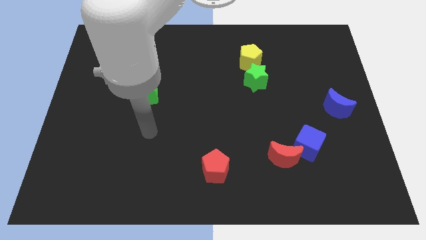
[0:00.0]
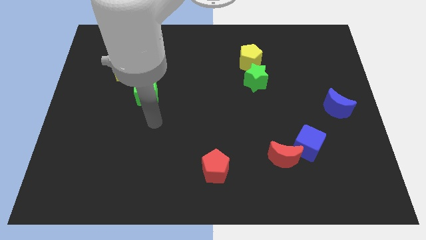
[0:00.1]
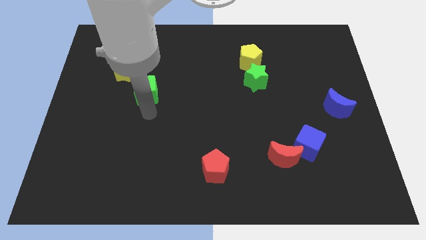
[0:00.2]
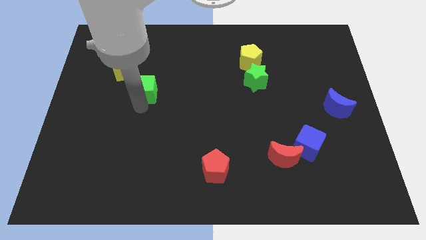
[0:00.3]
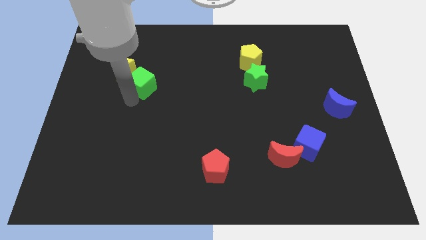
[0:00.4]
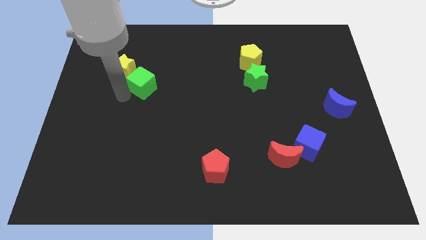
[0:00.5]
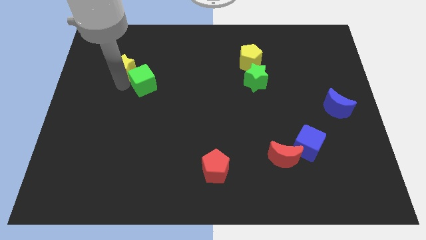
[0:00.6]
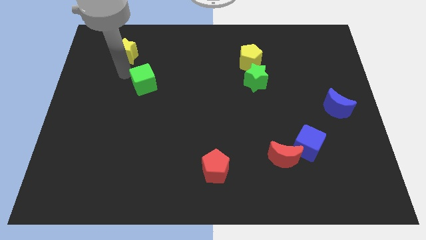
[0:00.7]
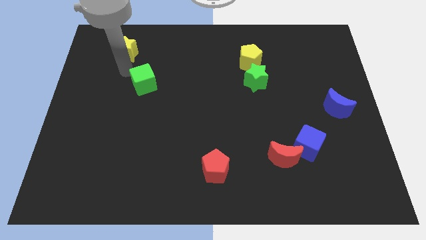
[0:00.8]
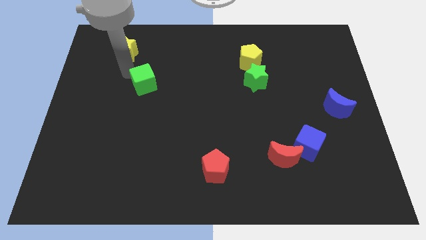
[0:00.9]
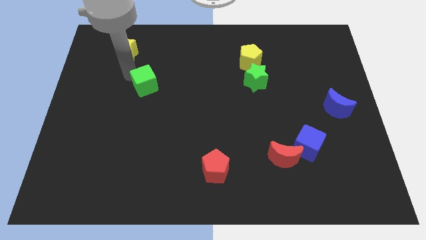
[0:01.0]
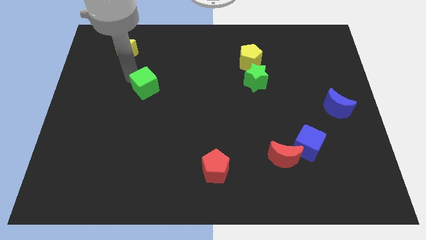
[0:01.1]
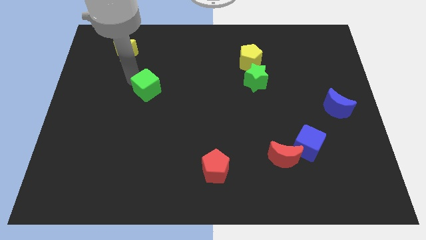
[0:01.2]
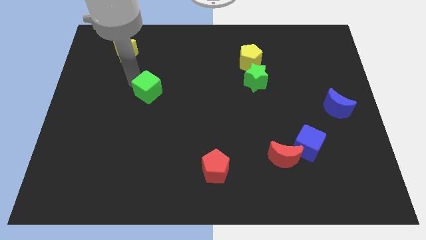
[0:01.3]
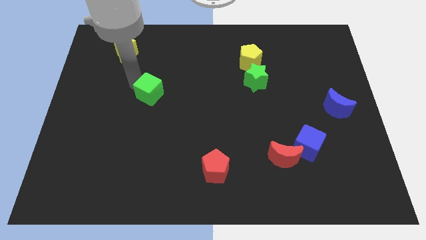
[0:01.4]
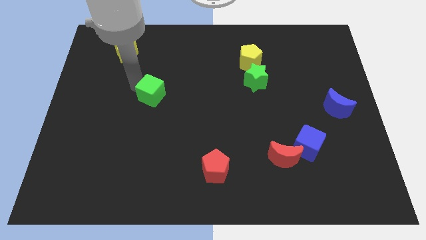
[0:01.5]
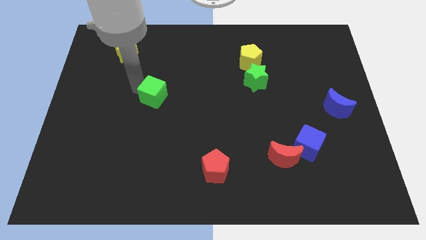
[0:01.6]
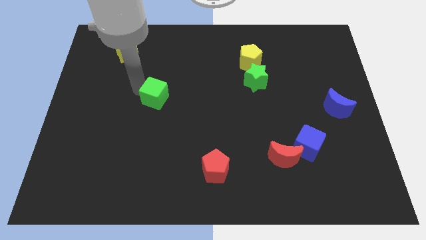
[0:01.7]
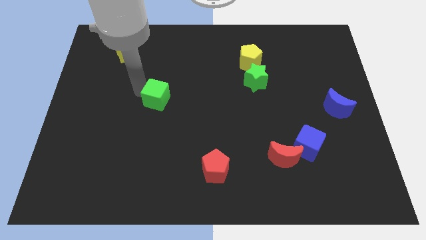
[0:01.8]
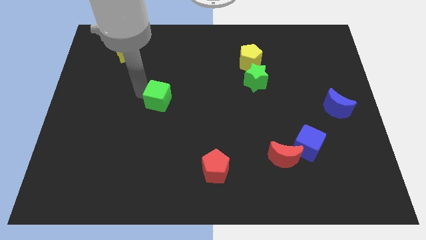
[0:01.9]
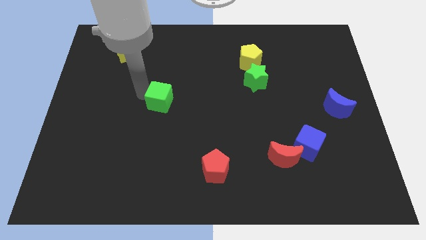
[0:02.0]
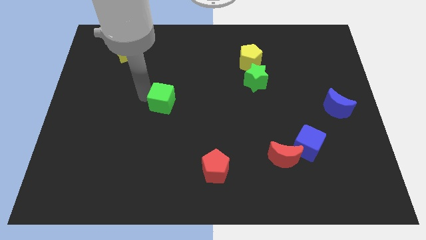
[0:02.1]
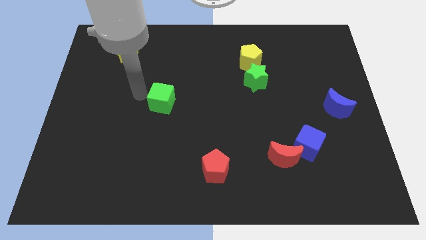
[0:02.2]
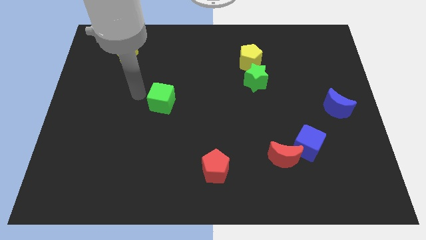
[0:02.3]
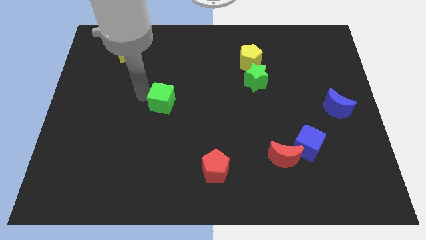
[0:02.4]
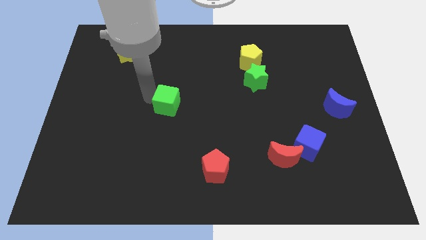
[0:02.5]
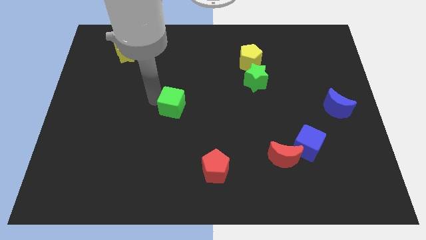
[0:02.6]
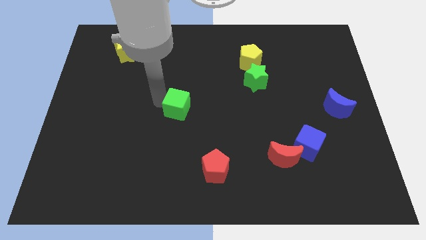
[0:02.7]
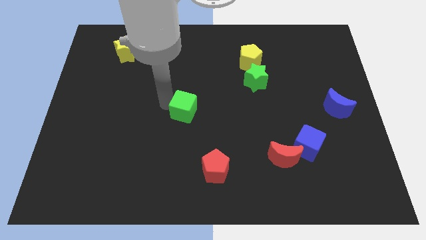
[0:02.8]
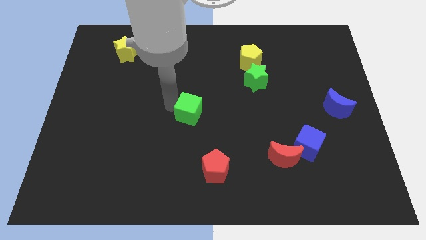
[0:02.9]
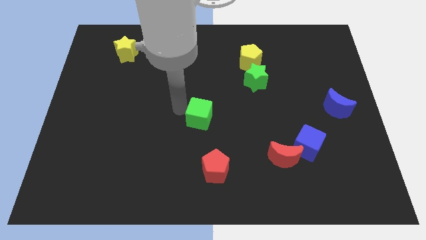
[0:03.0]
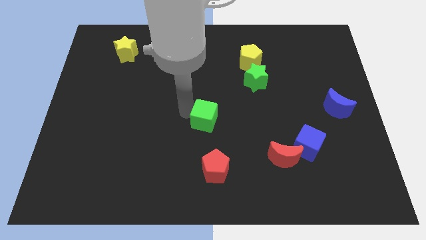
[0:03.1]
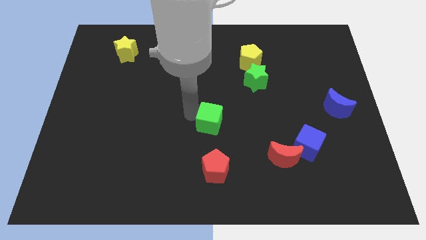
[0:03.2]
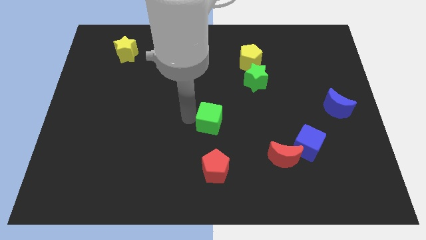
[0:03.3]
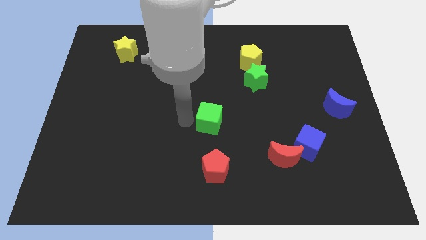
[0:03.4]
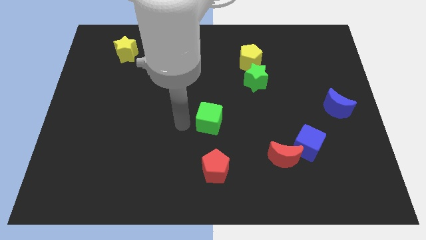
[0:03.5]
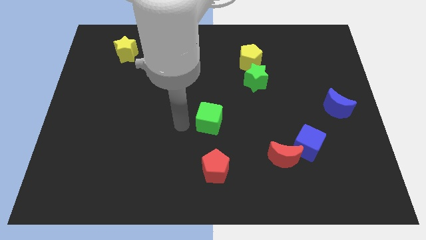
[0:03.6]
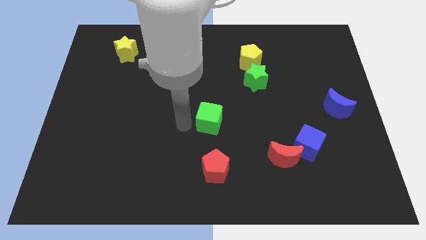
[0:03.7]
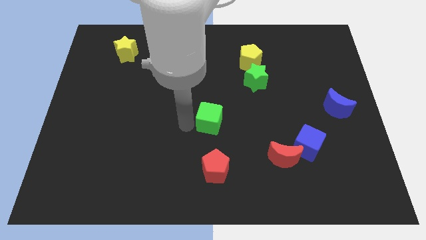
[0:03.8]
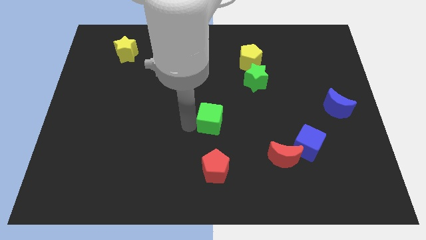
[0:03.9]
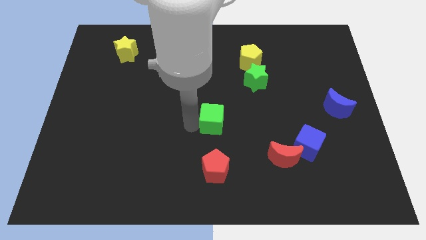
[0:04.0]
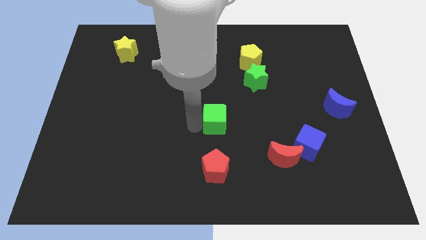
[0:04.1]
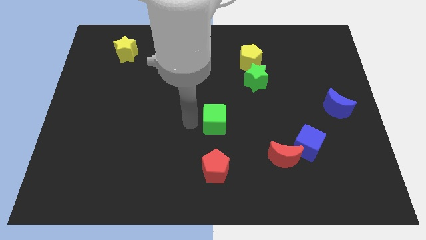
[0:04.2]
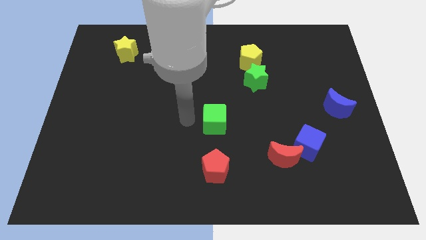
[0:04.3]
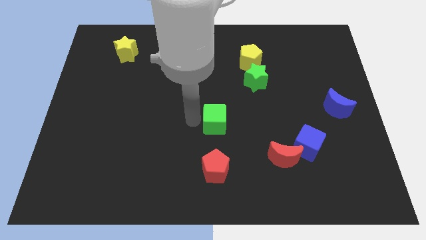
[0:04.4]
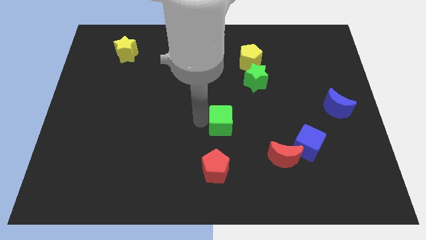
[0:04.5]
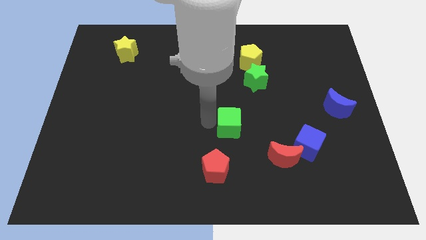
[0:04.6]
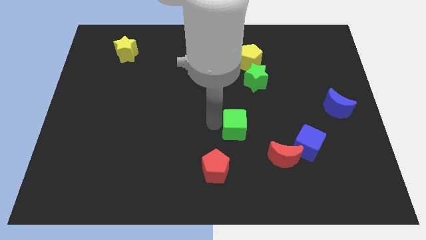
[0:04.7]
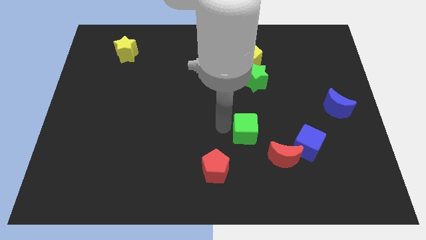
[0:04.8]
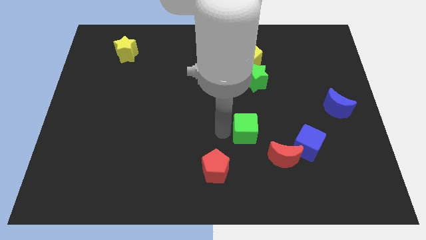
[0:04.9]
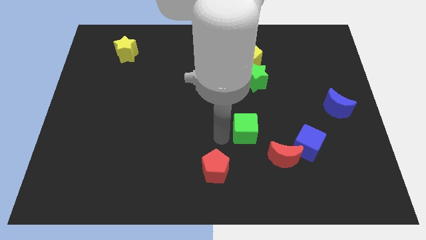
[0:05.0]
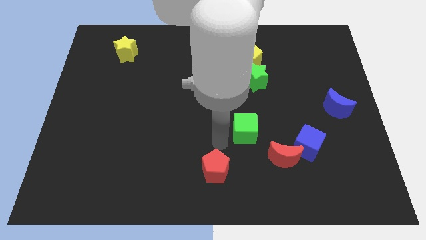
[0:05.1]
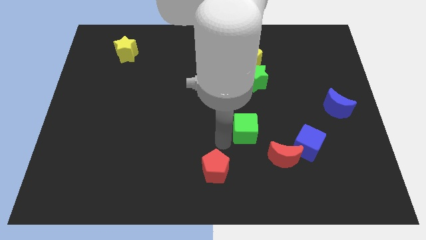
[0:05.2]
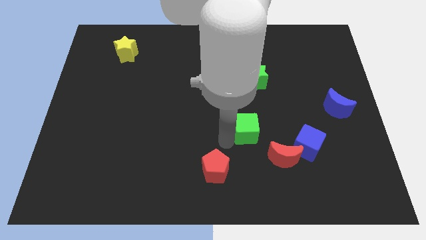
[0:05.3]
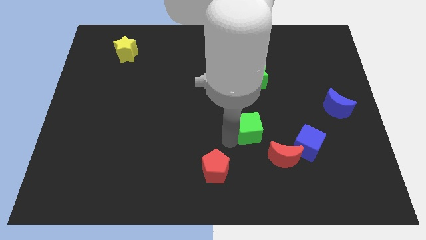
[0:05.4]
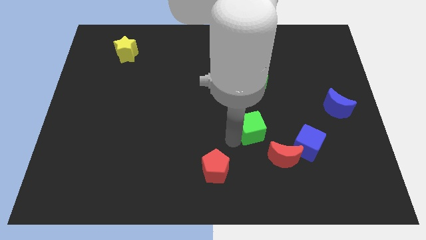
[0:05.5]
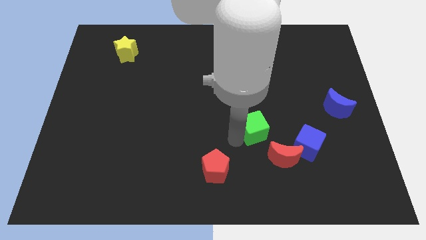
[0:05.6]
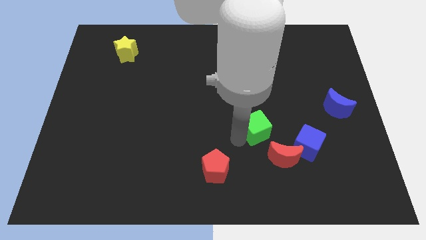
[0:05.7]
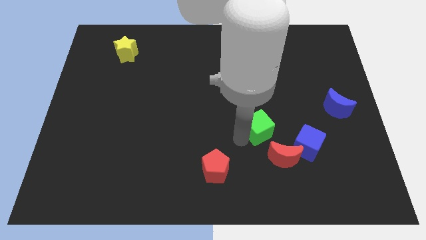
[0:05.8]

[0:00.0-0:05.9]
move the green cube to the top left side of the blue cube

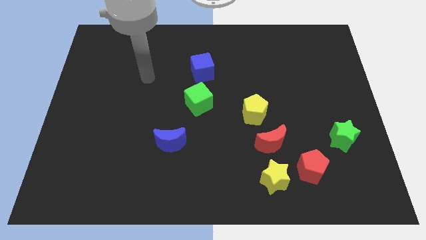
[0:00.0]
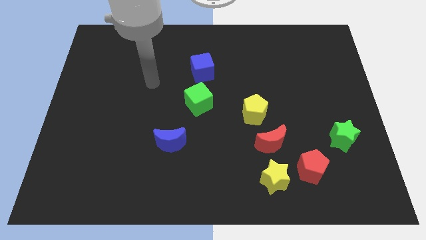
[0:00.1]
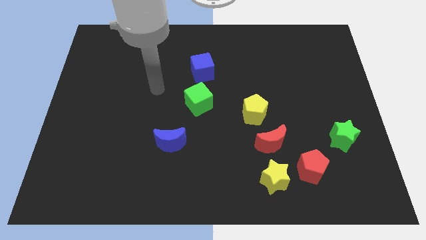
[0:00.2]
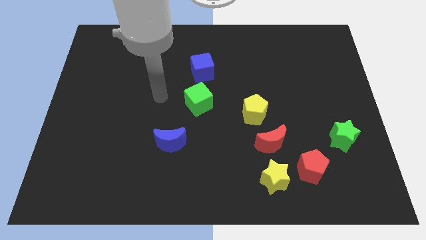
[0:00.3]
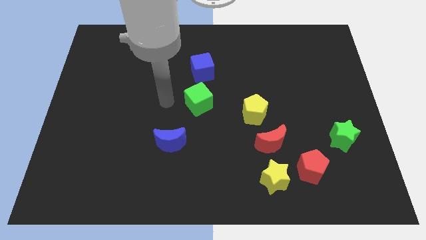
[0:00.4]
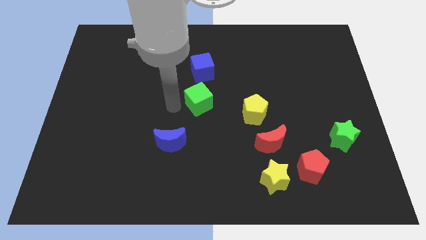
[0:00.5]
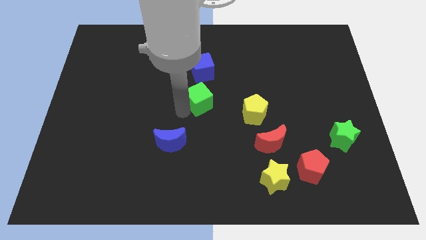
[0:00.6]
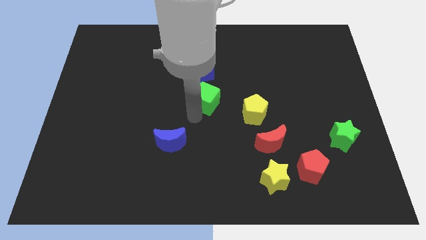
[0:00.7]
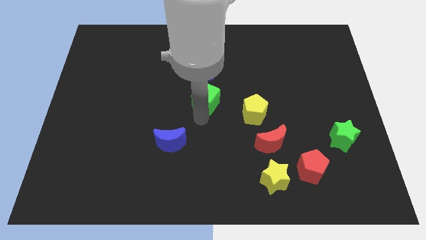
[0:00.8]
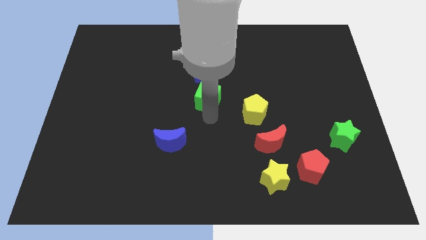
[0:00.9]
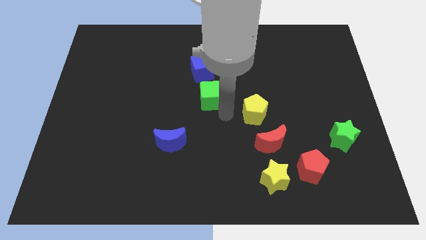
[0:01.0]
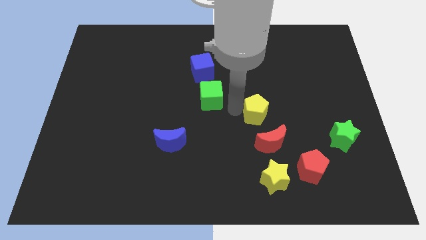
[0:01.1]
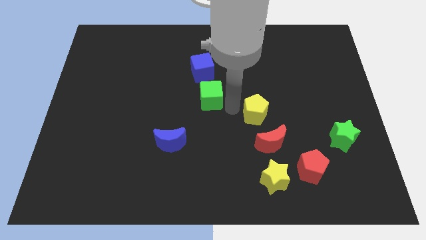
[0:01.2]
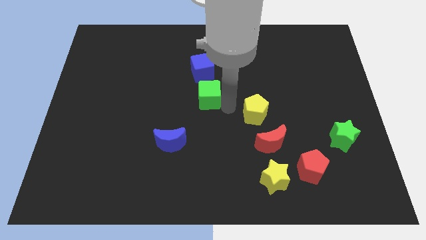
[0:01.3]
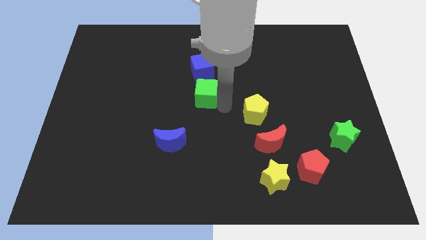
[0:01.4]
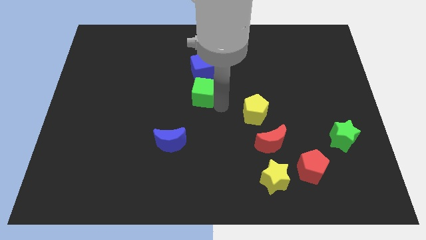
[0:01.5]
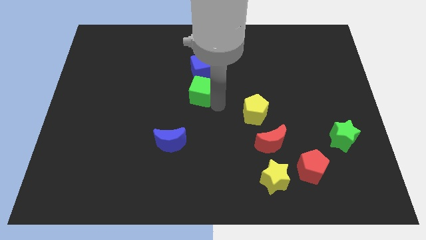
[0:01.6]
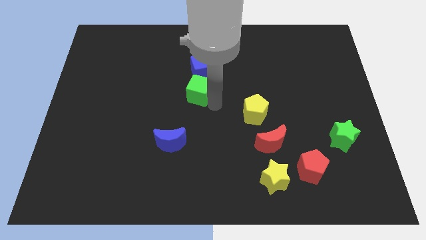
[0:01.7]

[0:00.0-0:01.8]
slide the green cube diagonally down and to the left of the blue cube
